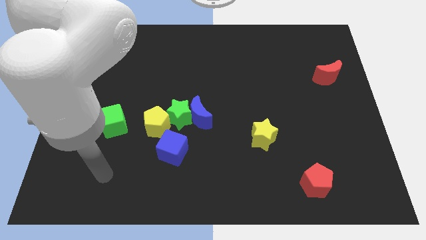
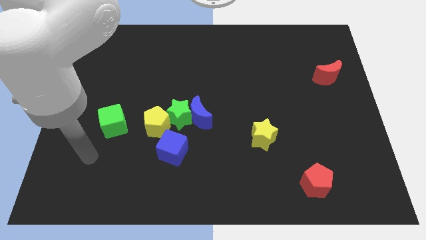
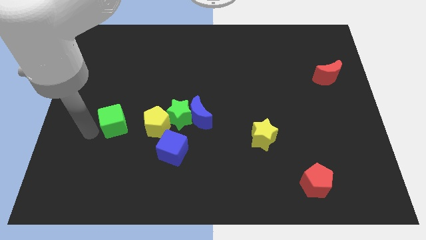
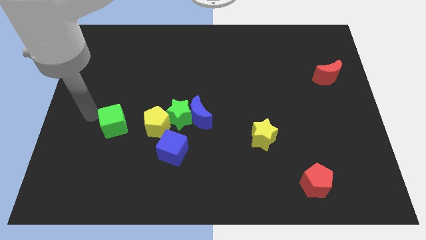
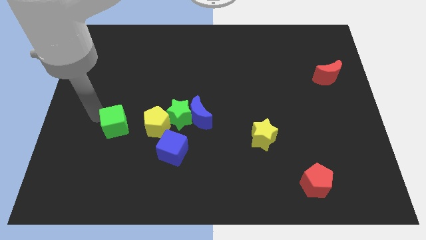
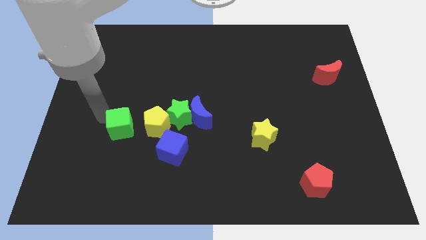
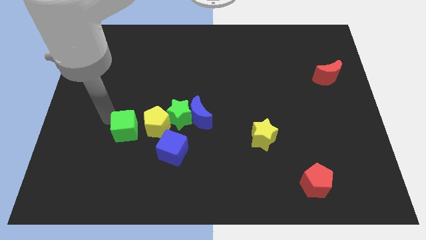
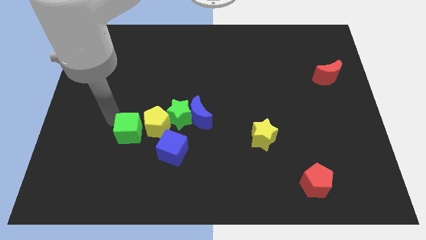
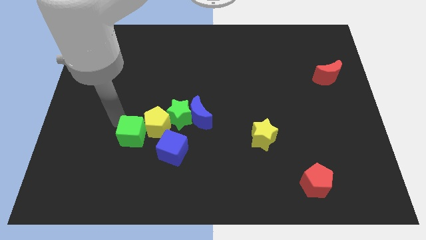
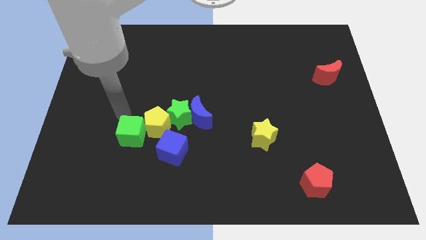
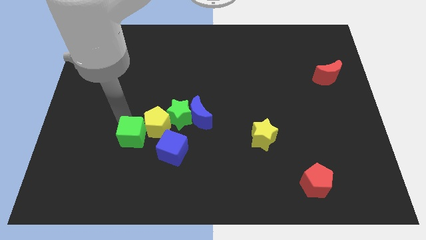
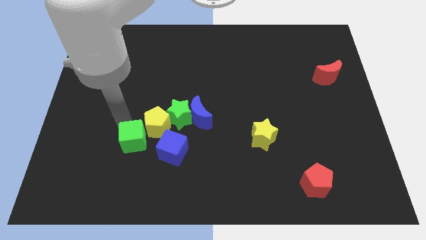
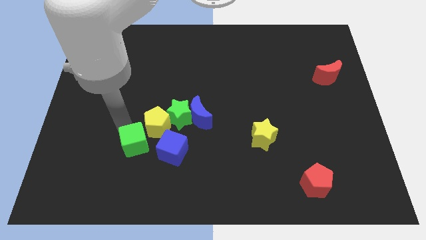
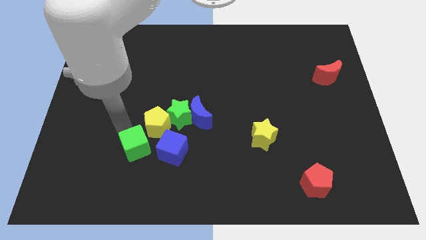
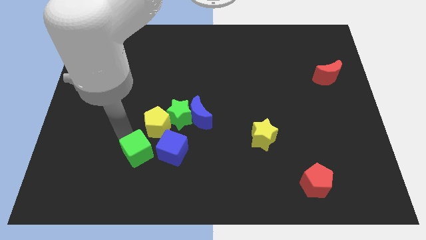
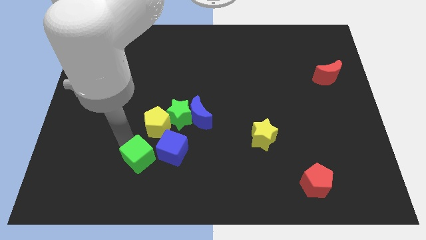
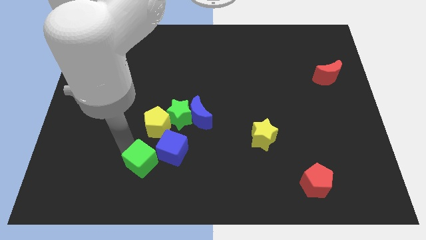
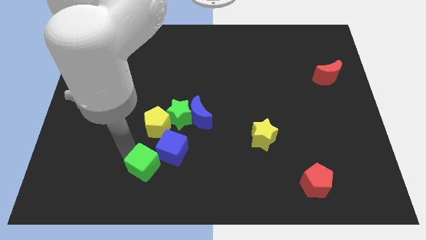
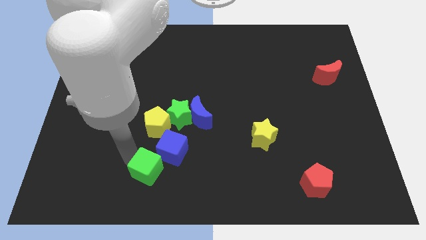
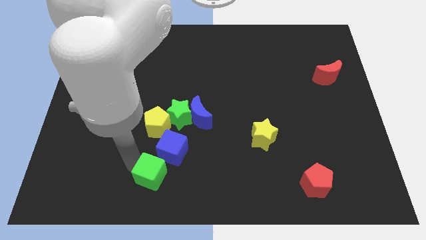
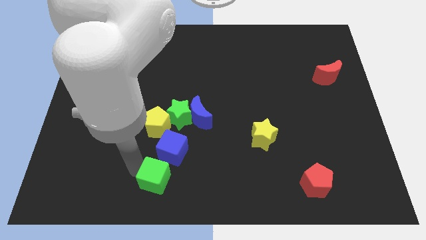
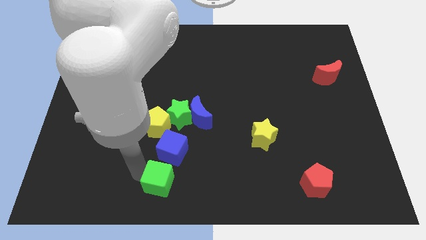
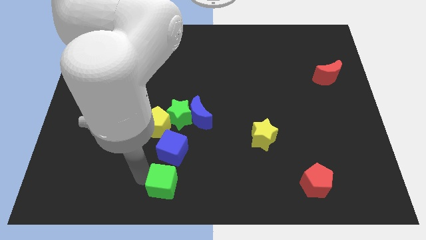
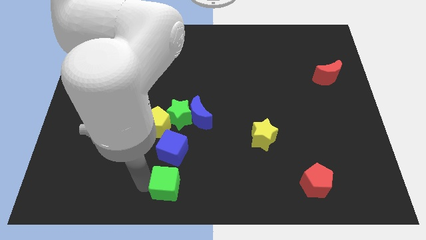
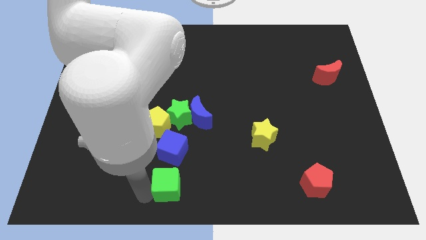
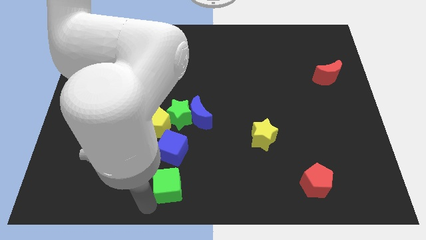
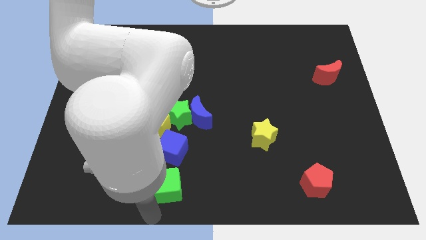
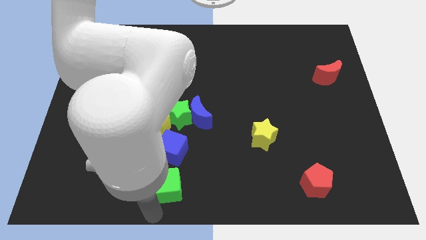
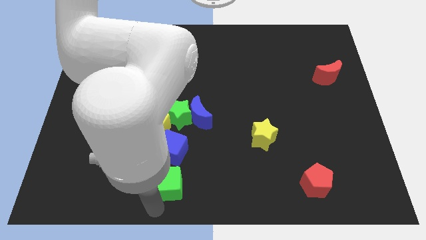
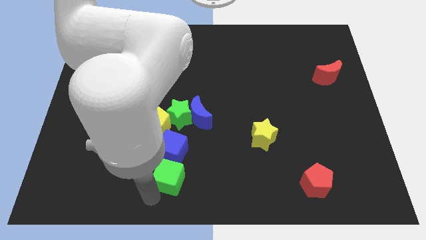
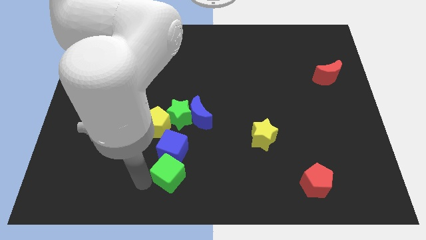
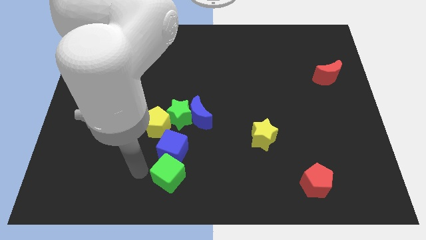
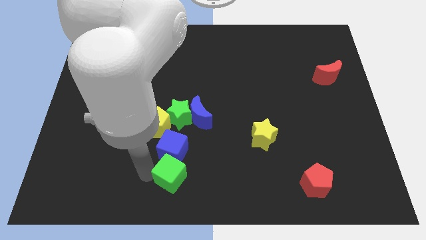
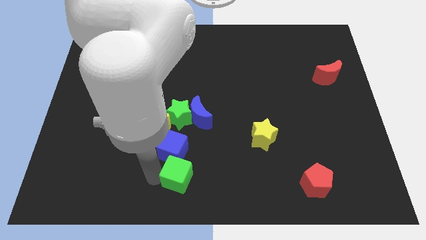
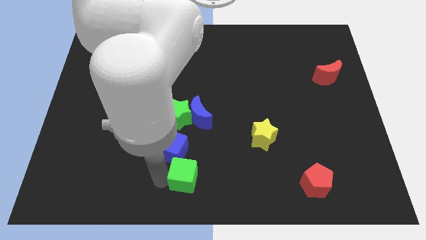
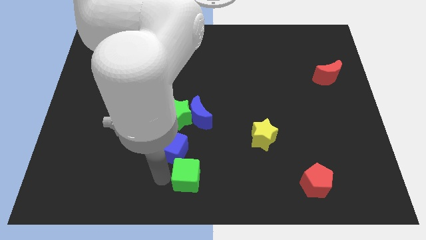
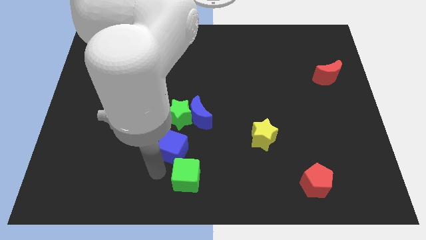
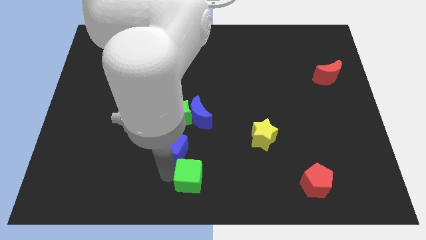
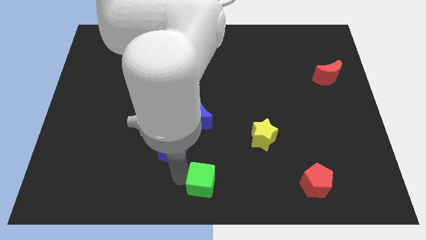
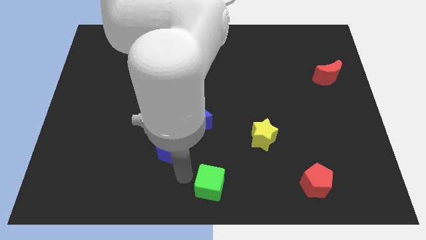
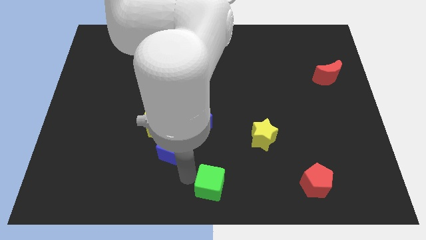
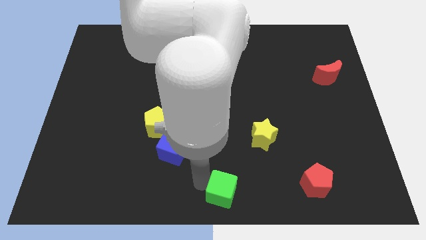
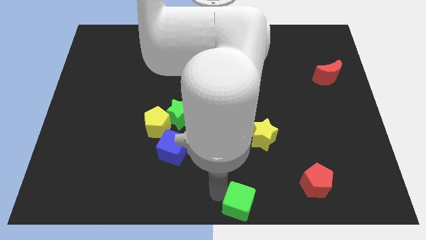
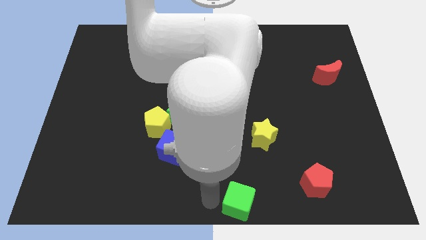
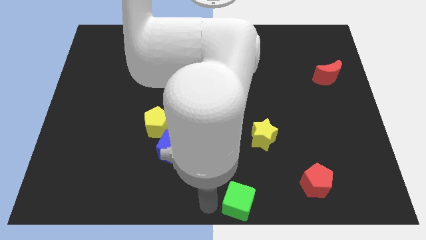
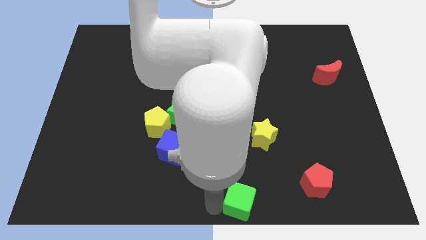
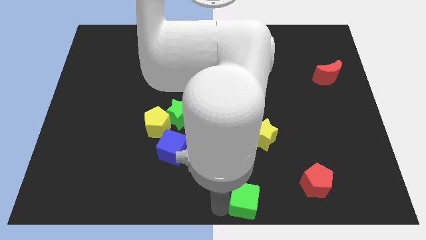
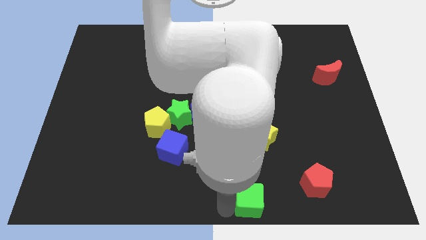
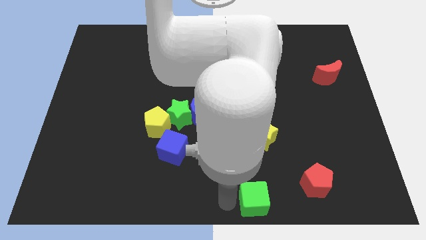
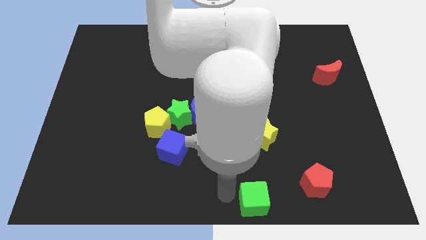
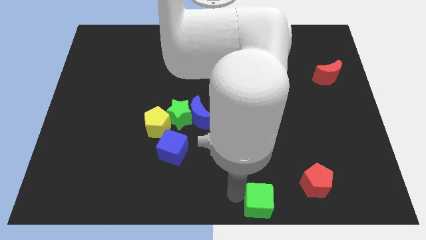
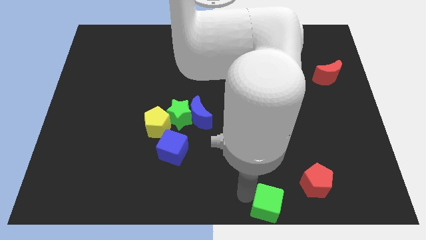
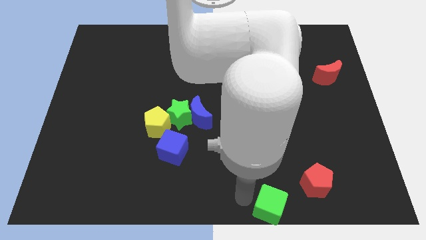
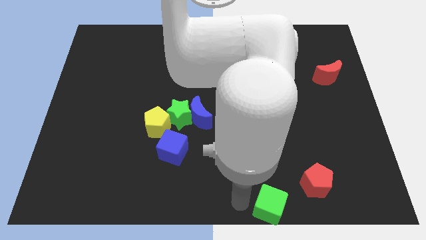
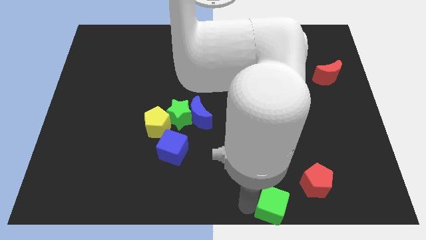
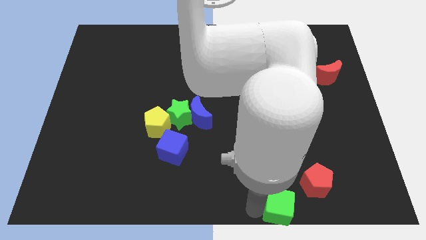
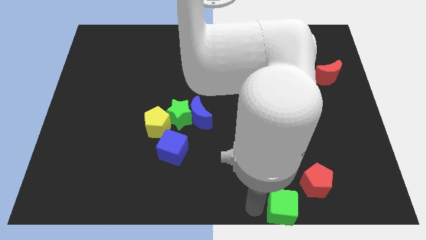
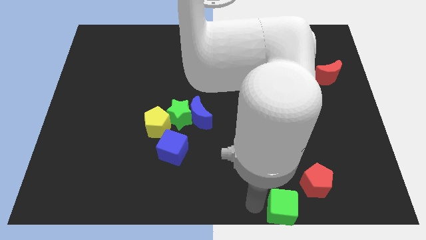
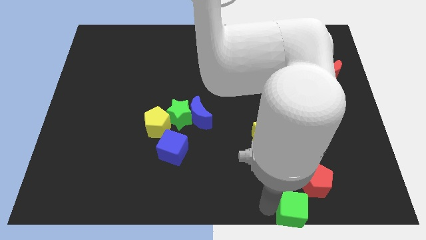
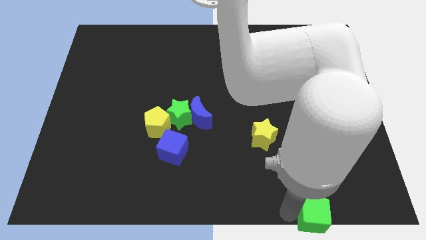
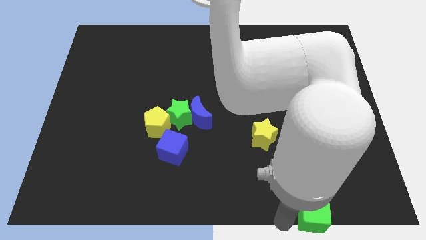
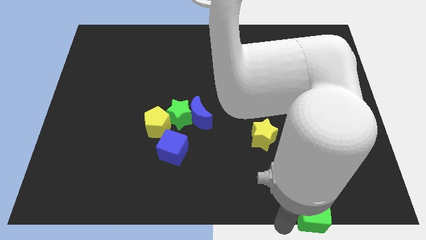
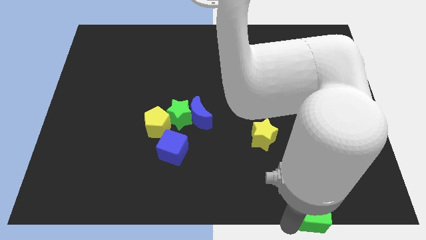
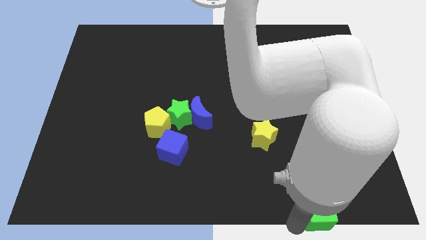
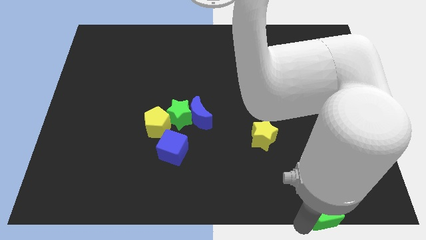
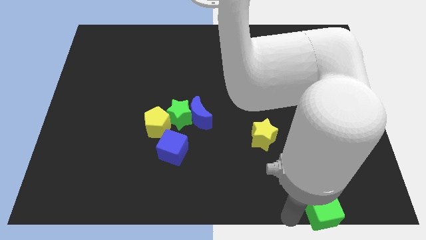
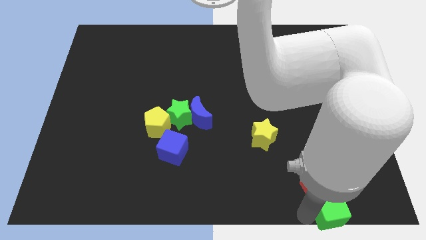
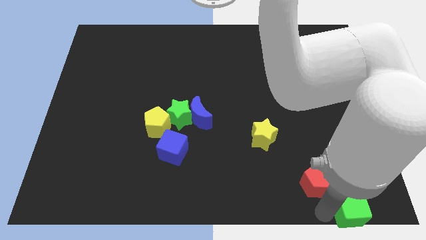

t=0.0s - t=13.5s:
put the green cube to the bottom right
